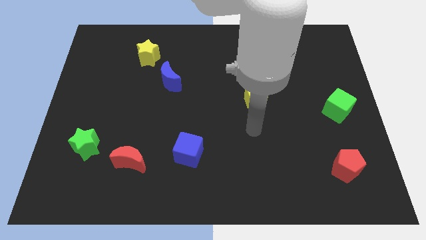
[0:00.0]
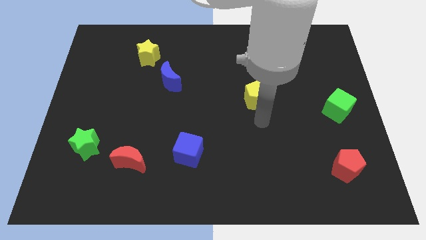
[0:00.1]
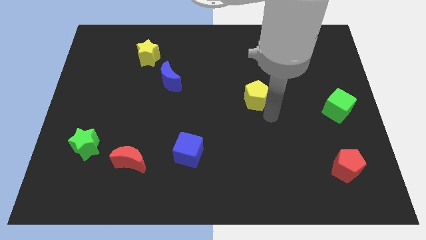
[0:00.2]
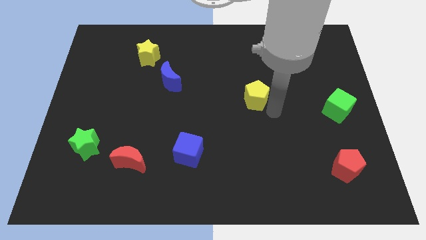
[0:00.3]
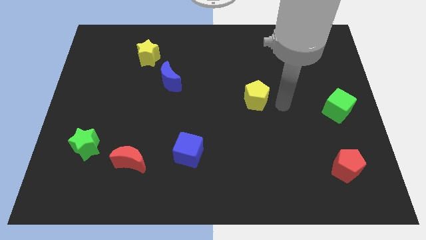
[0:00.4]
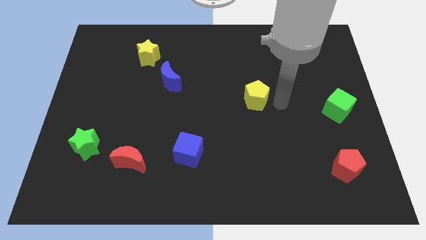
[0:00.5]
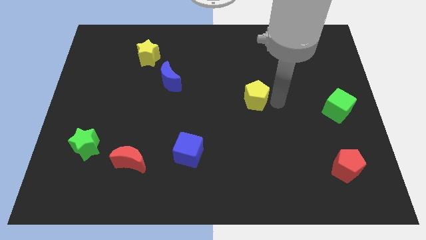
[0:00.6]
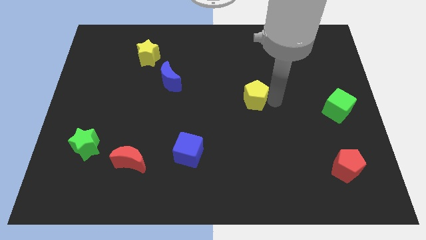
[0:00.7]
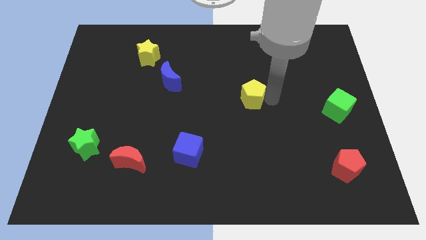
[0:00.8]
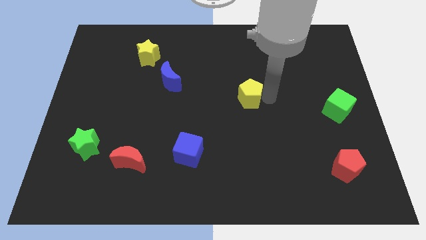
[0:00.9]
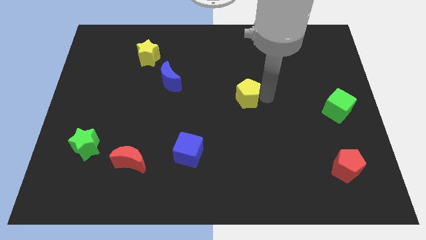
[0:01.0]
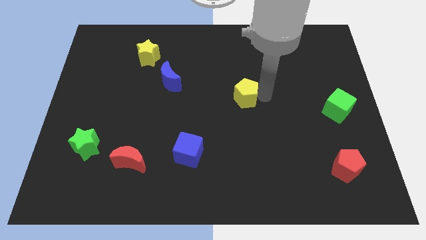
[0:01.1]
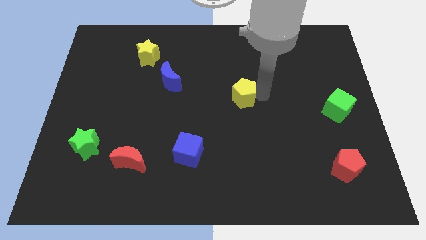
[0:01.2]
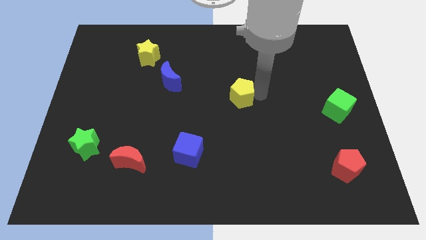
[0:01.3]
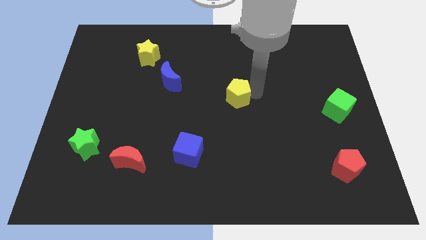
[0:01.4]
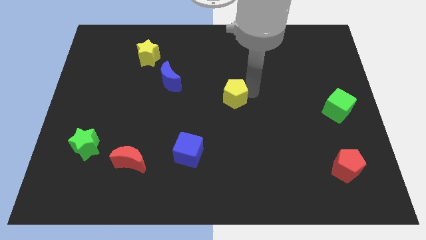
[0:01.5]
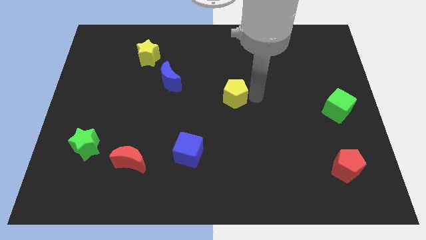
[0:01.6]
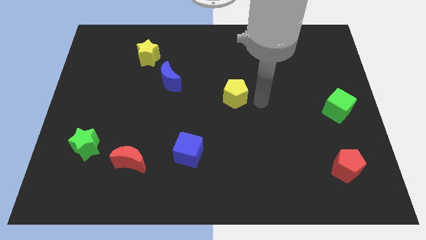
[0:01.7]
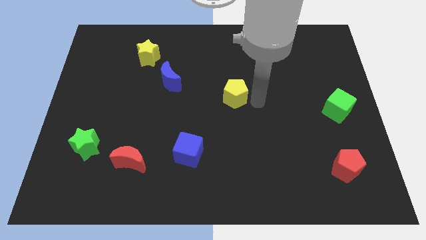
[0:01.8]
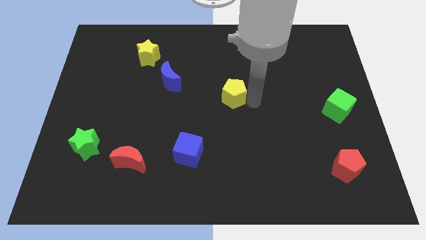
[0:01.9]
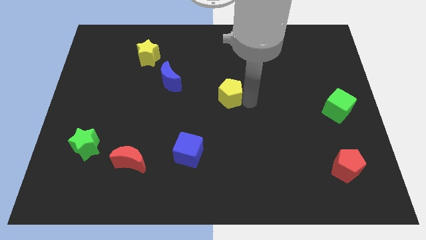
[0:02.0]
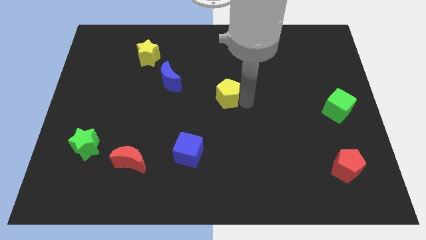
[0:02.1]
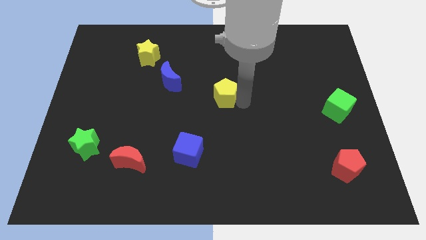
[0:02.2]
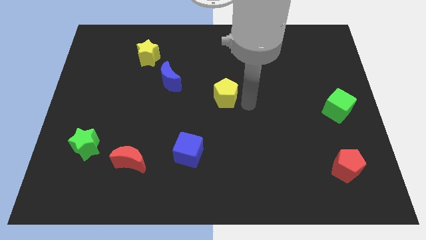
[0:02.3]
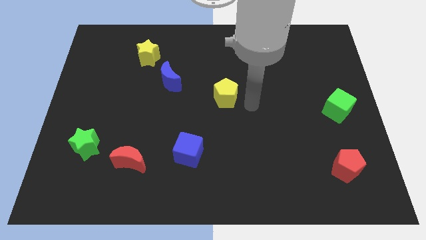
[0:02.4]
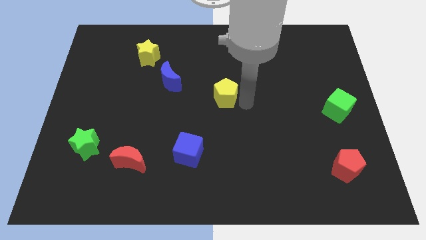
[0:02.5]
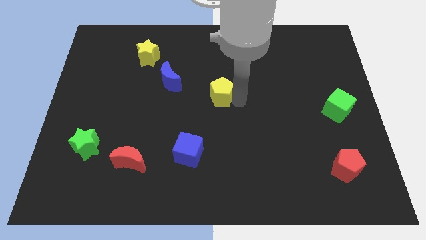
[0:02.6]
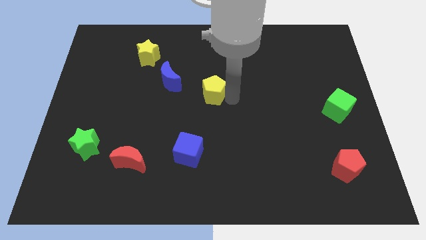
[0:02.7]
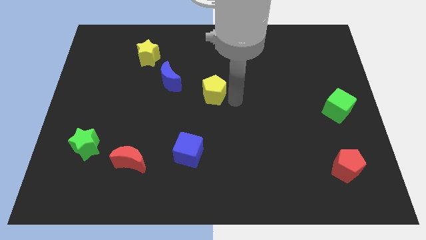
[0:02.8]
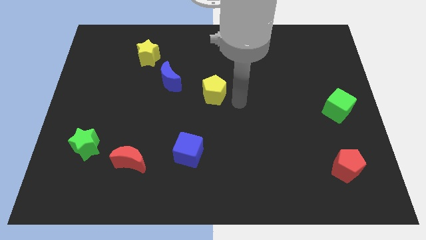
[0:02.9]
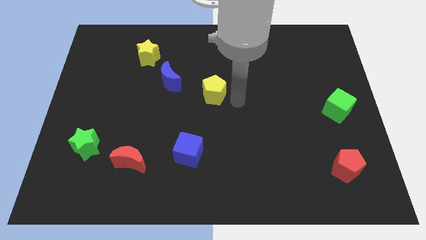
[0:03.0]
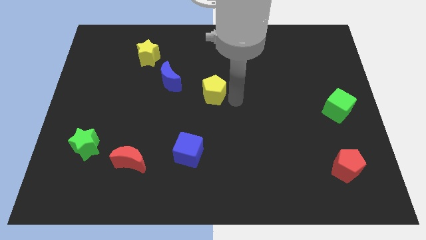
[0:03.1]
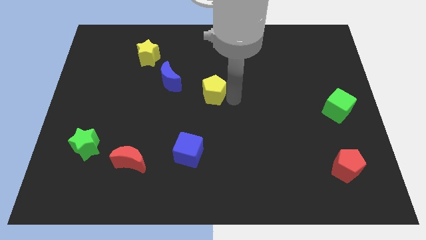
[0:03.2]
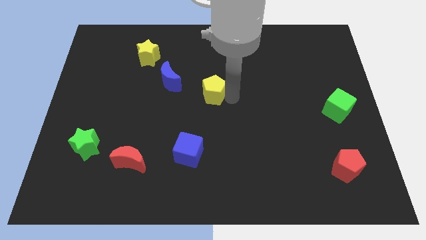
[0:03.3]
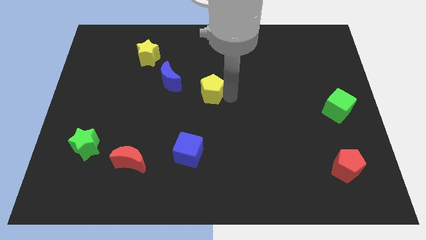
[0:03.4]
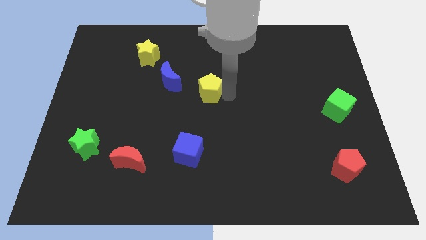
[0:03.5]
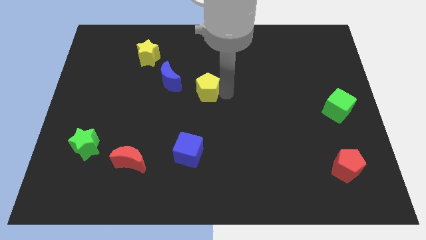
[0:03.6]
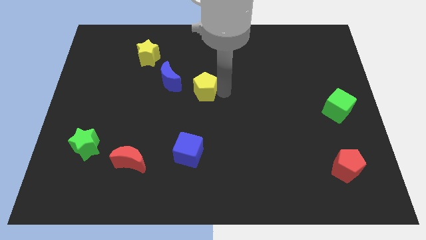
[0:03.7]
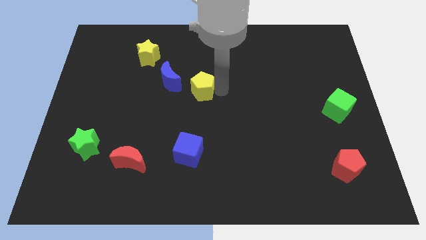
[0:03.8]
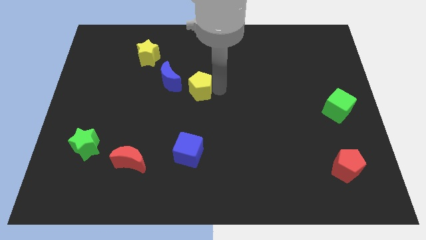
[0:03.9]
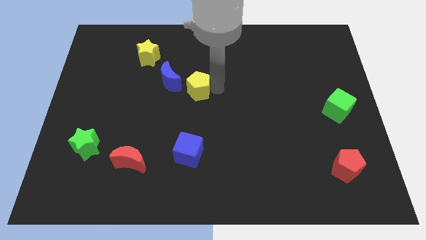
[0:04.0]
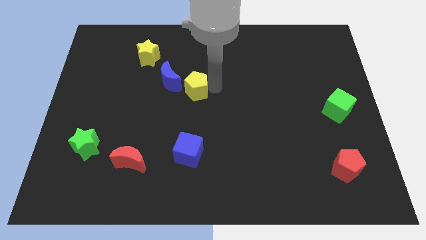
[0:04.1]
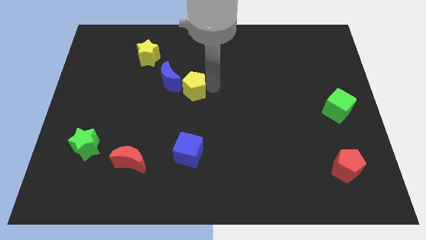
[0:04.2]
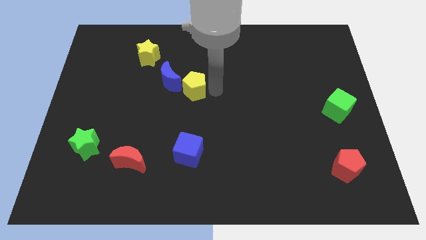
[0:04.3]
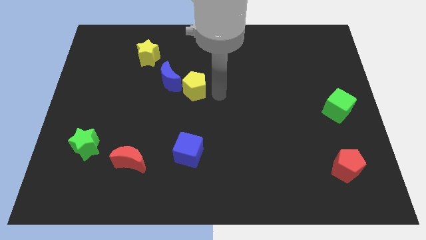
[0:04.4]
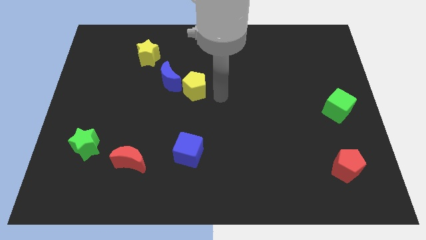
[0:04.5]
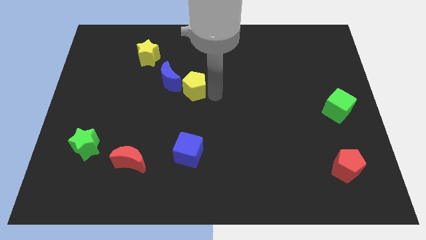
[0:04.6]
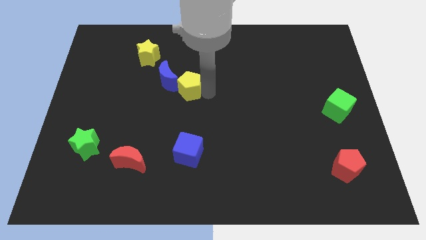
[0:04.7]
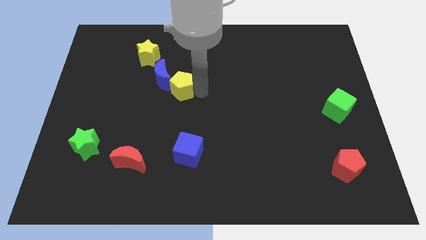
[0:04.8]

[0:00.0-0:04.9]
push the yellow pentagon towards the blue moon

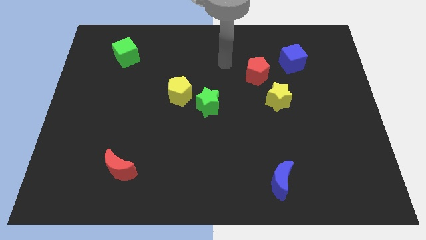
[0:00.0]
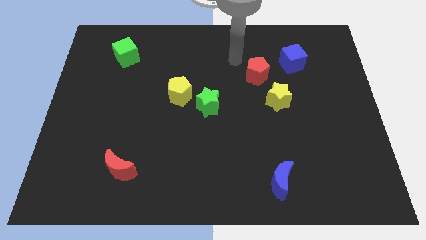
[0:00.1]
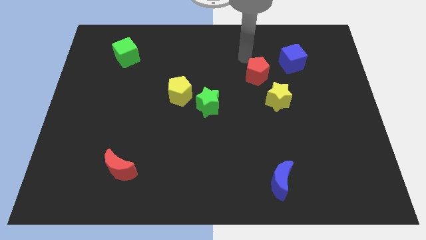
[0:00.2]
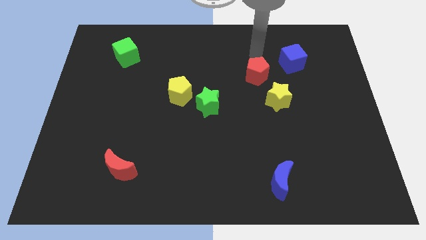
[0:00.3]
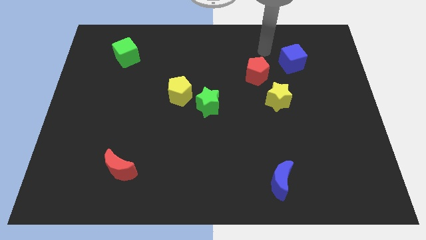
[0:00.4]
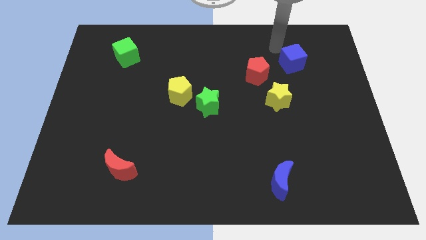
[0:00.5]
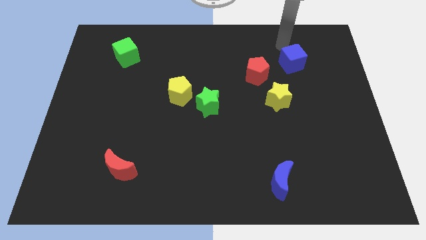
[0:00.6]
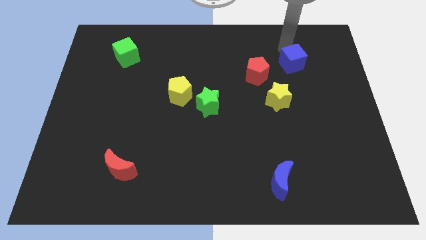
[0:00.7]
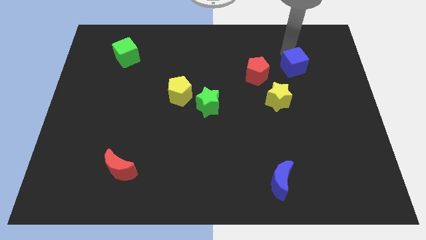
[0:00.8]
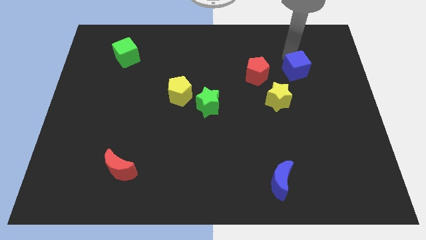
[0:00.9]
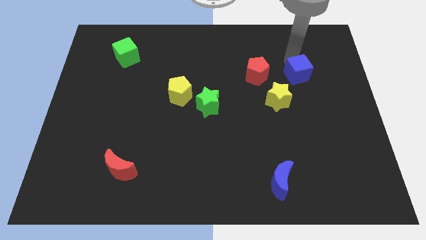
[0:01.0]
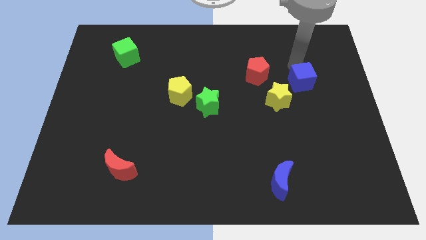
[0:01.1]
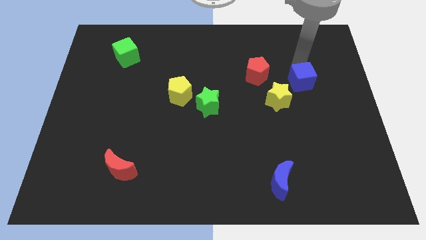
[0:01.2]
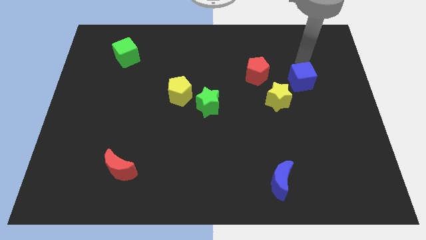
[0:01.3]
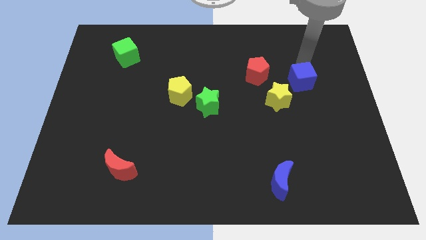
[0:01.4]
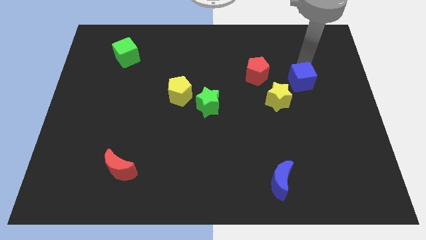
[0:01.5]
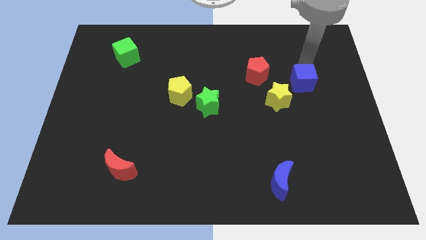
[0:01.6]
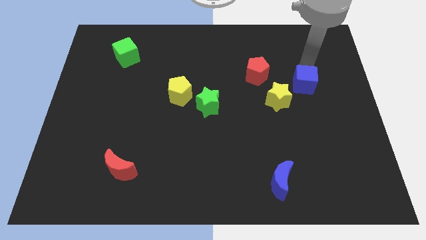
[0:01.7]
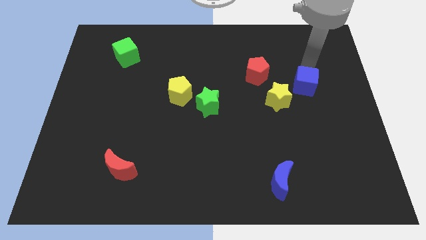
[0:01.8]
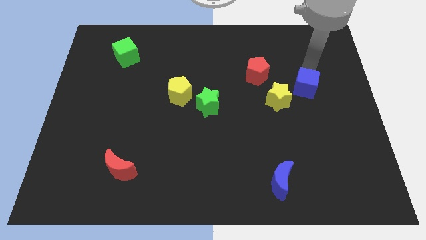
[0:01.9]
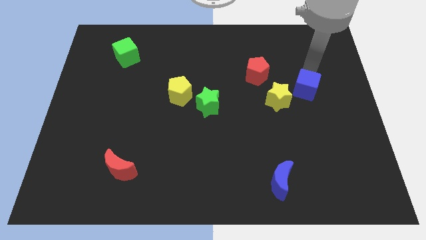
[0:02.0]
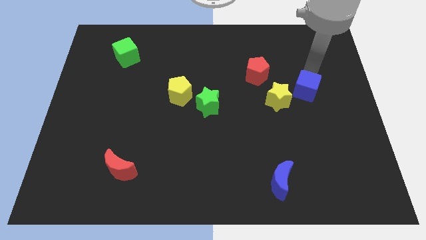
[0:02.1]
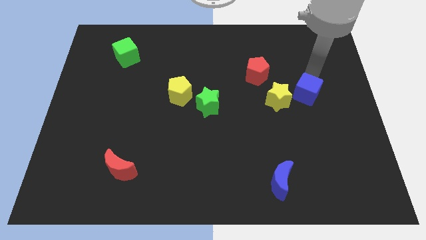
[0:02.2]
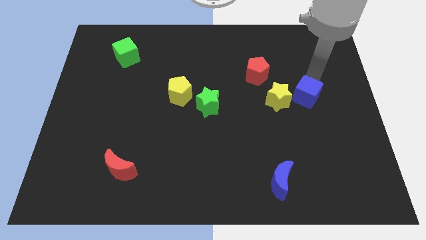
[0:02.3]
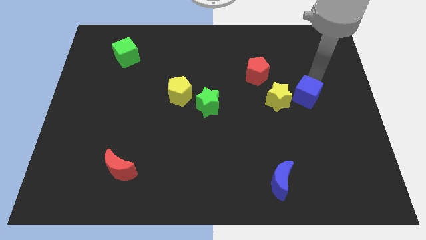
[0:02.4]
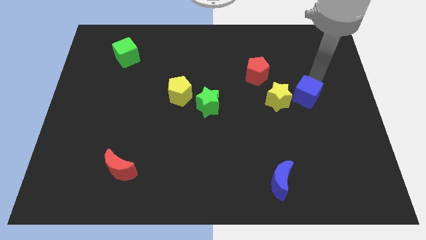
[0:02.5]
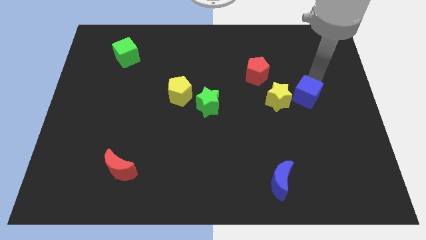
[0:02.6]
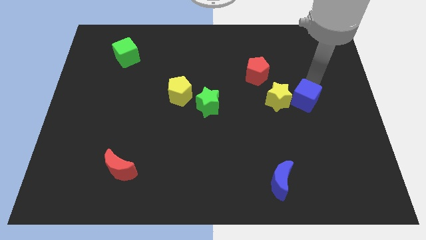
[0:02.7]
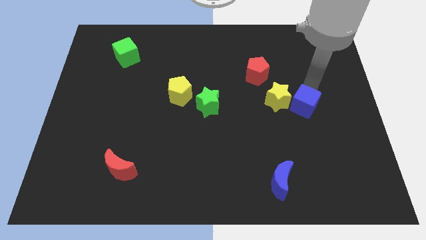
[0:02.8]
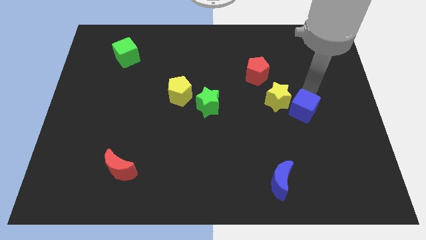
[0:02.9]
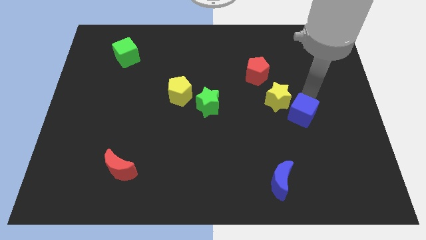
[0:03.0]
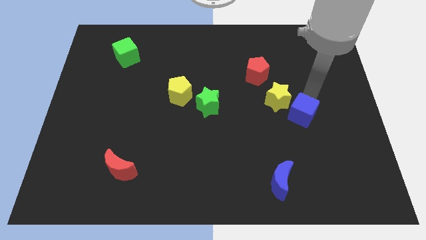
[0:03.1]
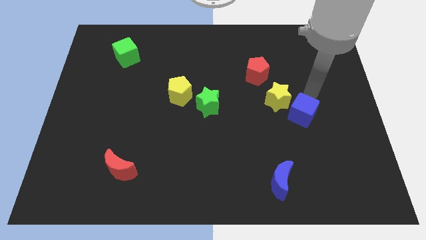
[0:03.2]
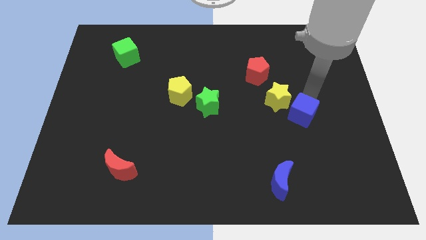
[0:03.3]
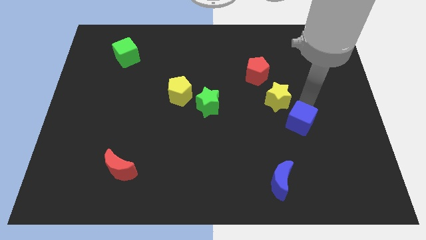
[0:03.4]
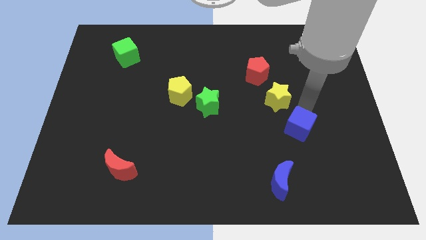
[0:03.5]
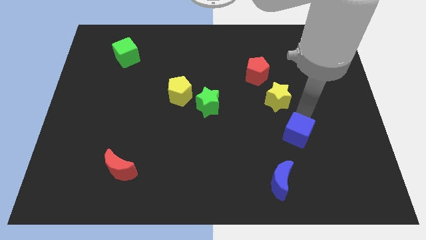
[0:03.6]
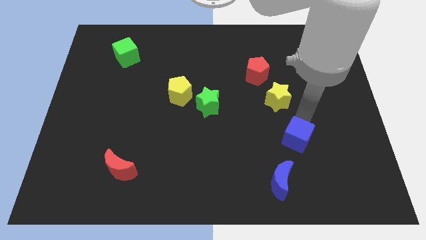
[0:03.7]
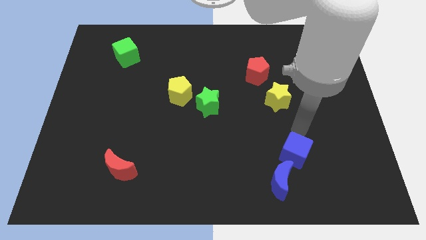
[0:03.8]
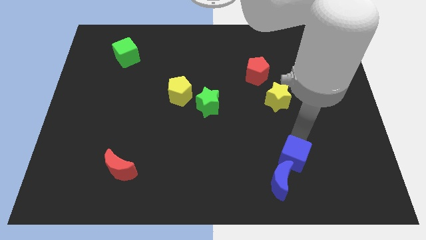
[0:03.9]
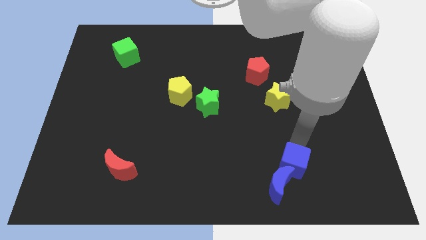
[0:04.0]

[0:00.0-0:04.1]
put the blue cube next to the blue moon
